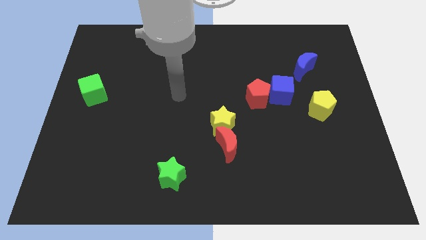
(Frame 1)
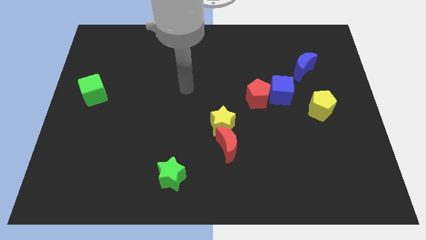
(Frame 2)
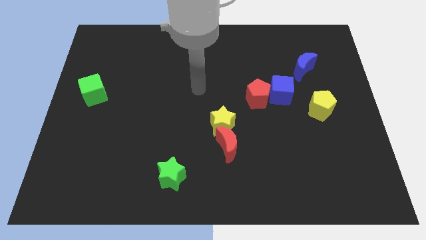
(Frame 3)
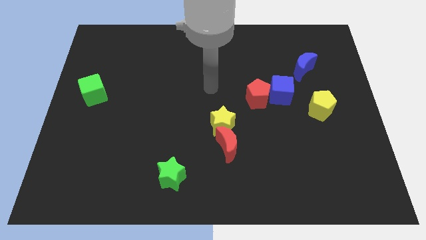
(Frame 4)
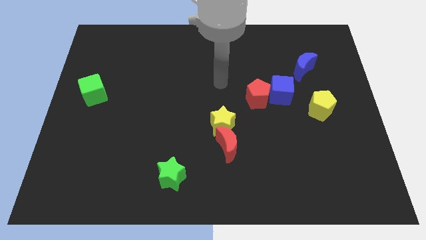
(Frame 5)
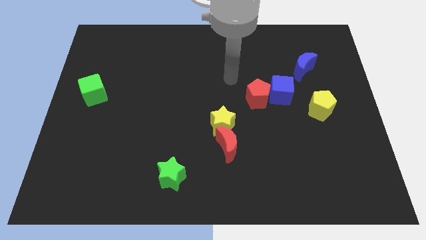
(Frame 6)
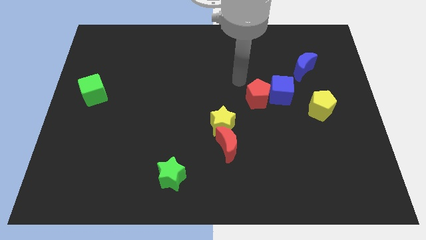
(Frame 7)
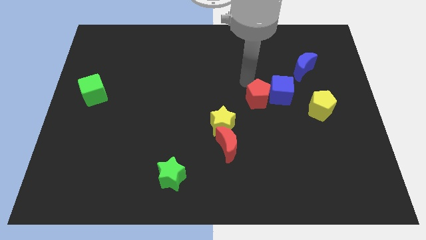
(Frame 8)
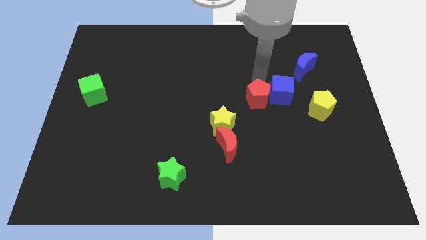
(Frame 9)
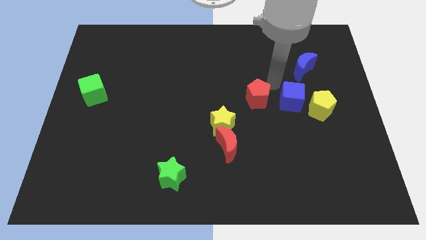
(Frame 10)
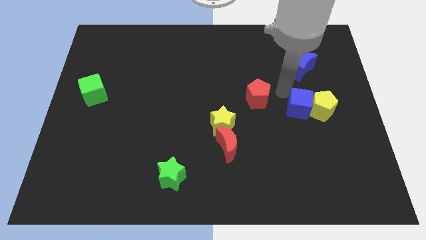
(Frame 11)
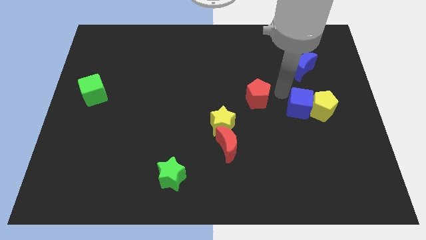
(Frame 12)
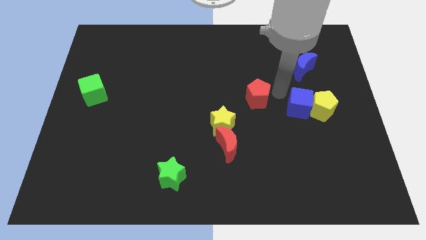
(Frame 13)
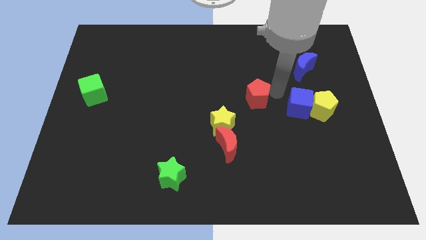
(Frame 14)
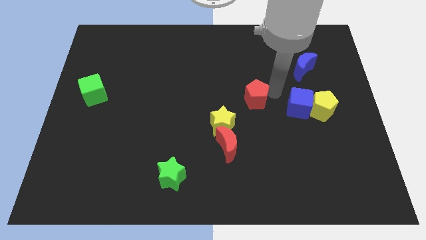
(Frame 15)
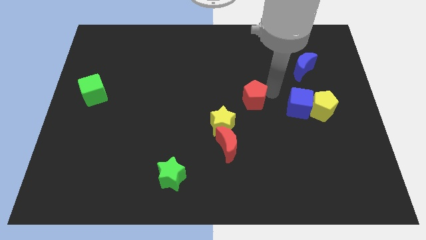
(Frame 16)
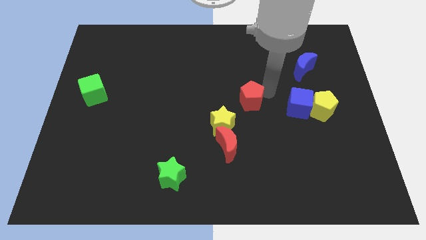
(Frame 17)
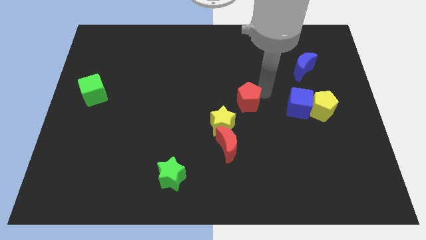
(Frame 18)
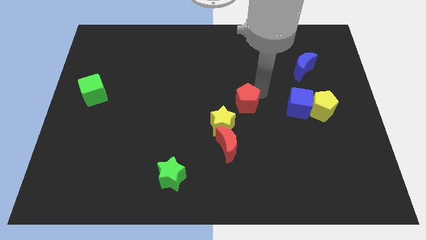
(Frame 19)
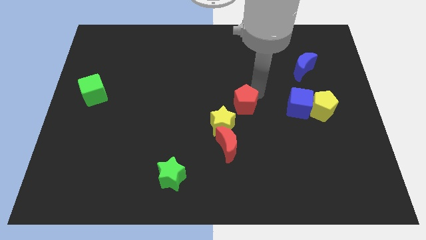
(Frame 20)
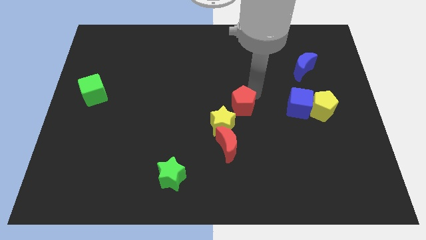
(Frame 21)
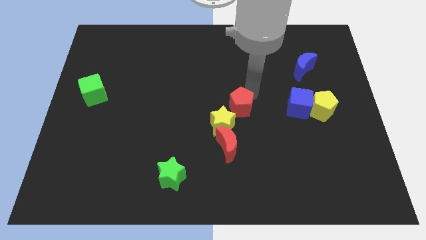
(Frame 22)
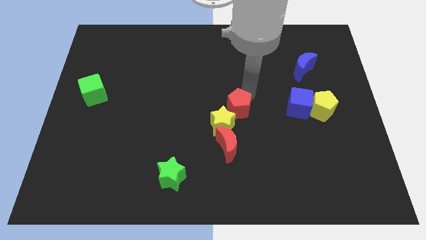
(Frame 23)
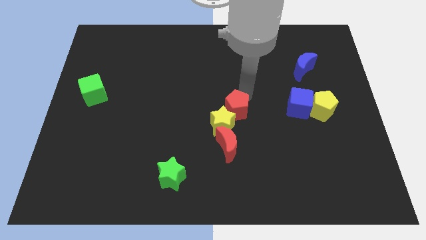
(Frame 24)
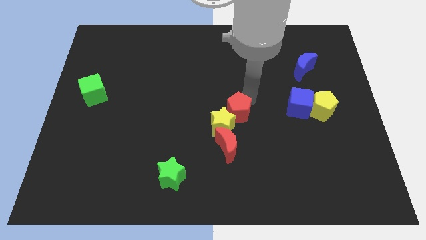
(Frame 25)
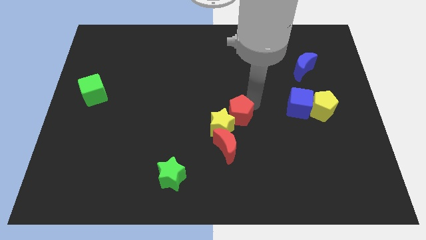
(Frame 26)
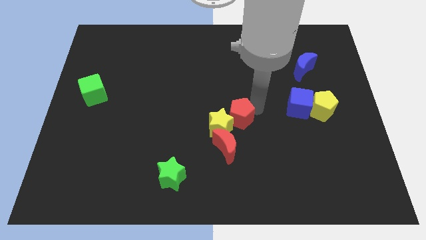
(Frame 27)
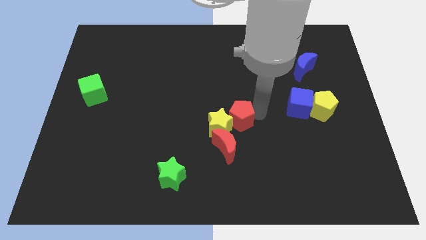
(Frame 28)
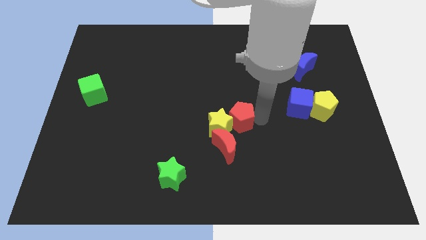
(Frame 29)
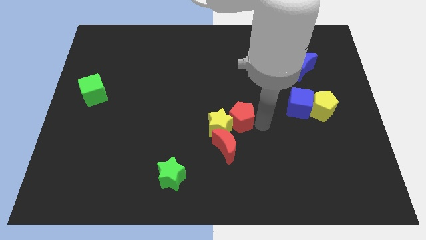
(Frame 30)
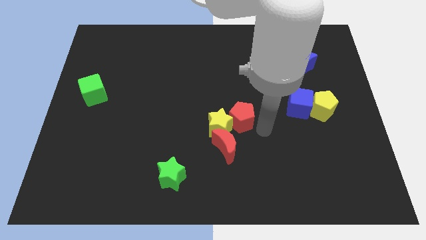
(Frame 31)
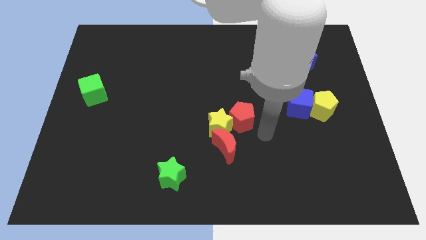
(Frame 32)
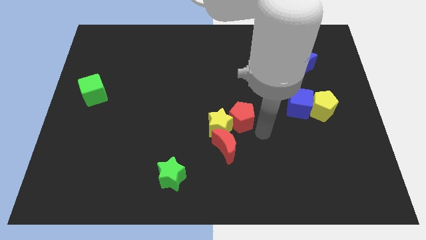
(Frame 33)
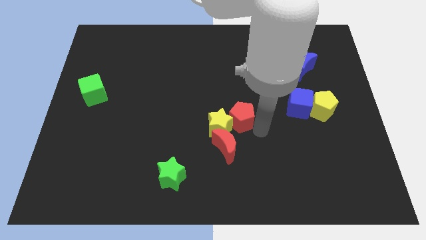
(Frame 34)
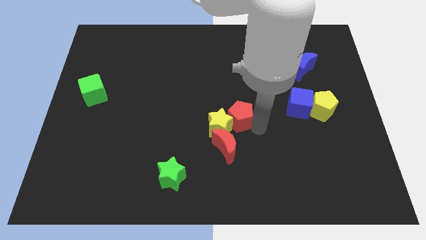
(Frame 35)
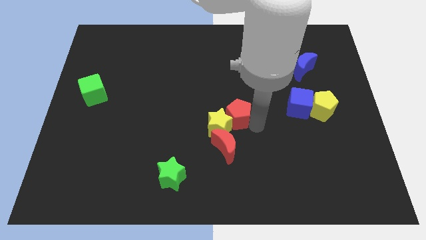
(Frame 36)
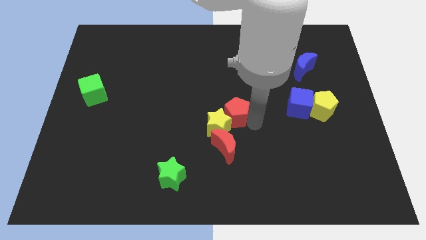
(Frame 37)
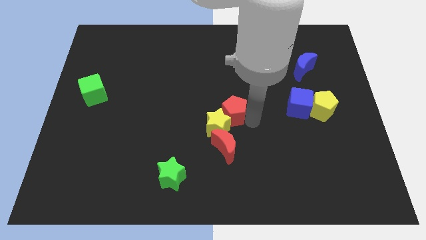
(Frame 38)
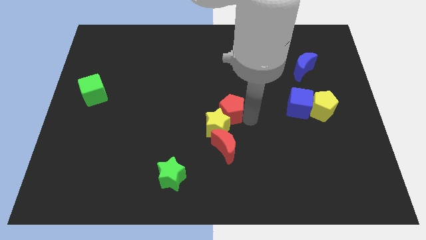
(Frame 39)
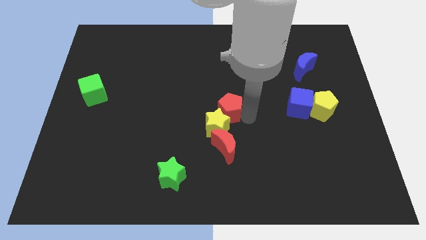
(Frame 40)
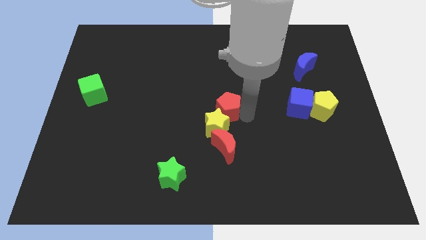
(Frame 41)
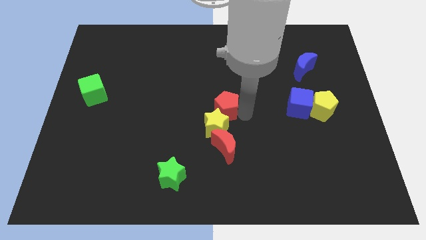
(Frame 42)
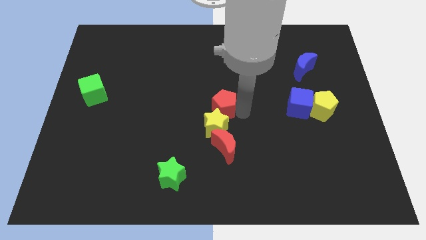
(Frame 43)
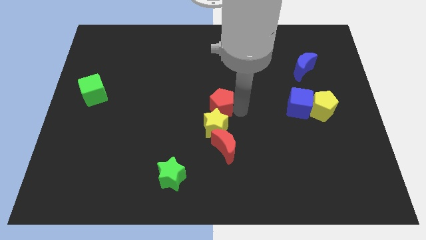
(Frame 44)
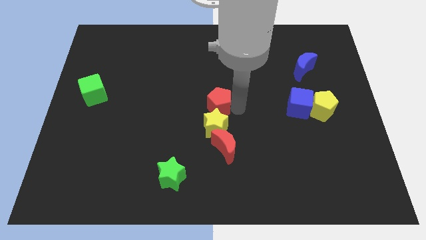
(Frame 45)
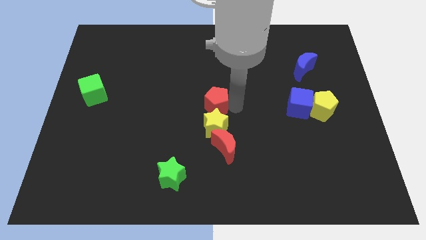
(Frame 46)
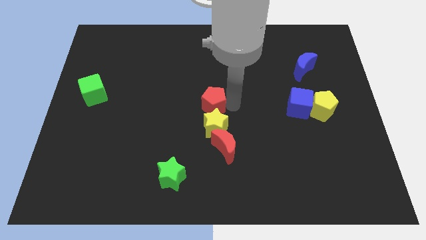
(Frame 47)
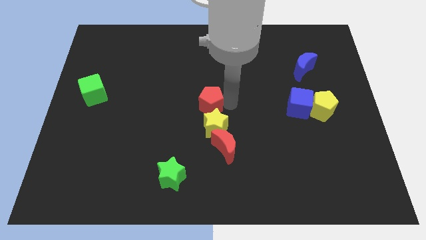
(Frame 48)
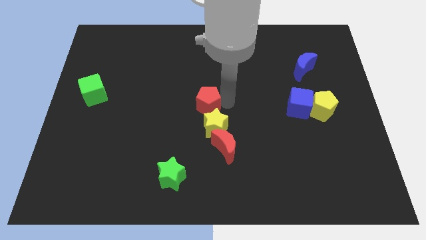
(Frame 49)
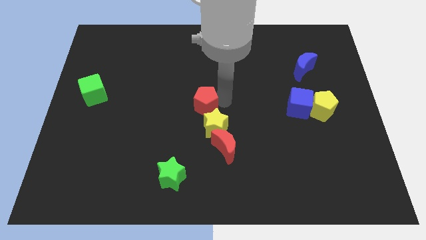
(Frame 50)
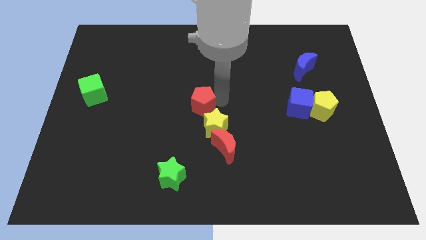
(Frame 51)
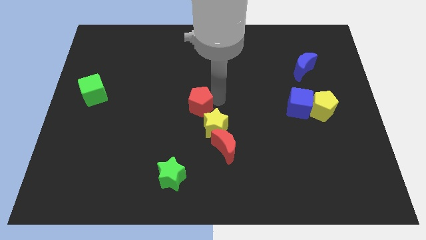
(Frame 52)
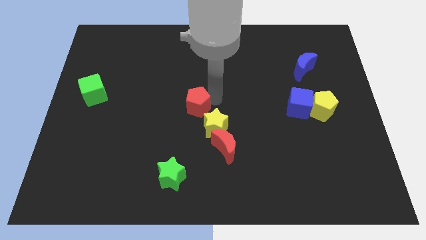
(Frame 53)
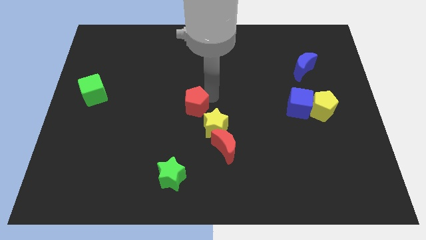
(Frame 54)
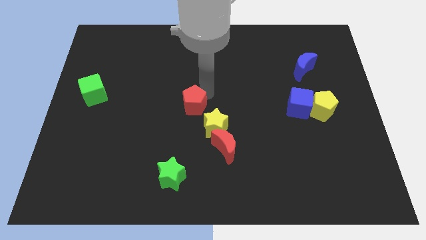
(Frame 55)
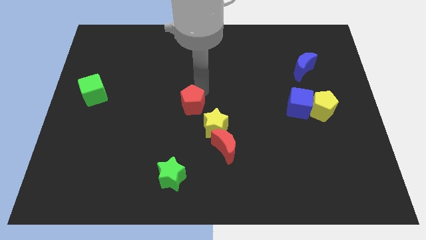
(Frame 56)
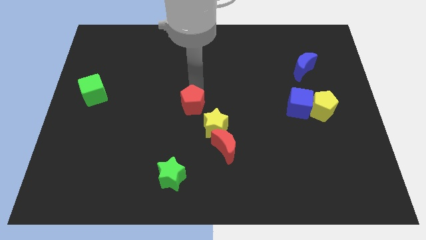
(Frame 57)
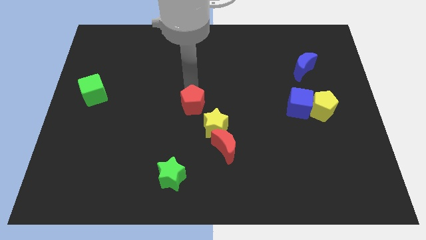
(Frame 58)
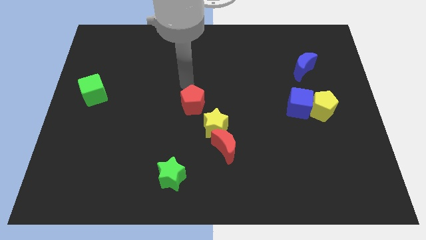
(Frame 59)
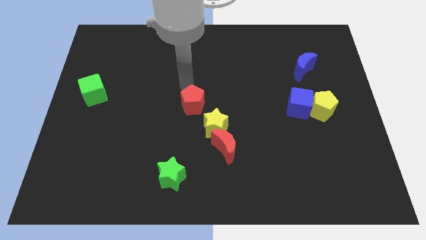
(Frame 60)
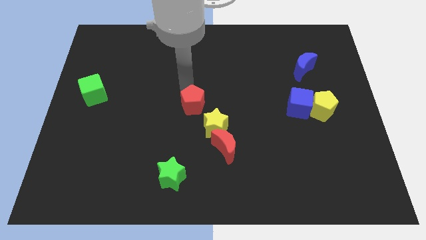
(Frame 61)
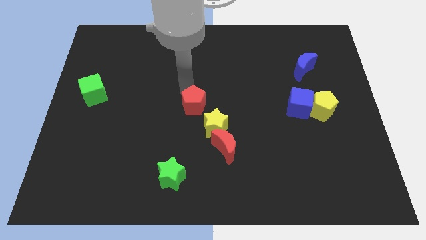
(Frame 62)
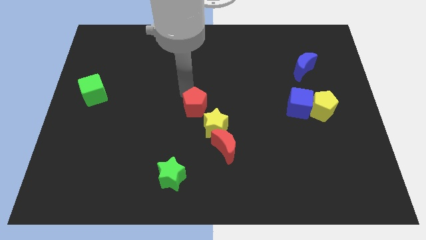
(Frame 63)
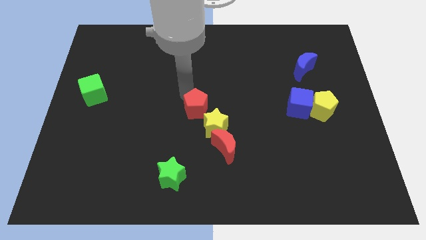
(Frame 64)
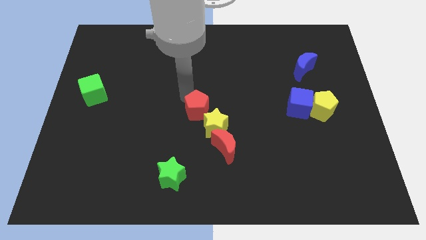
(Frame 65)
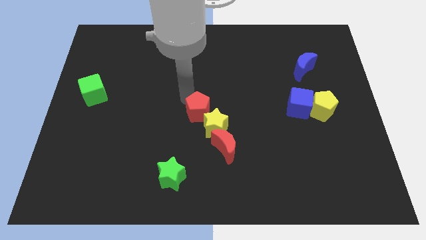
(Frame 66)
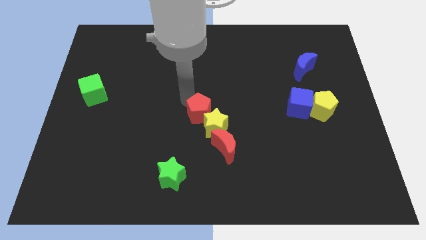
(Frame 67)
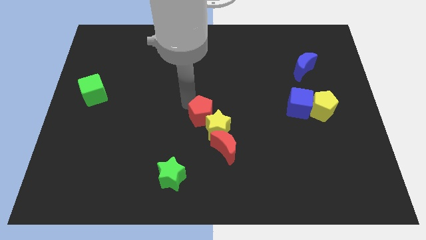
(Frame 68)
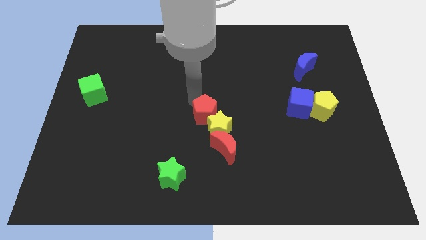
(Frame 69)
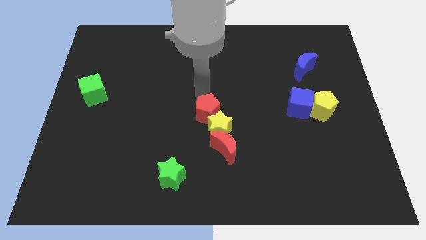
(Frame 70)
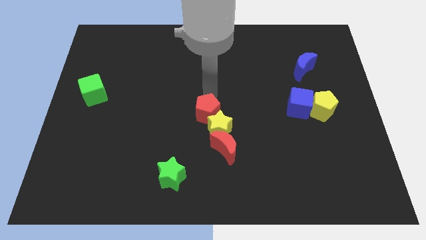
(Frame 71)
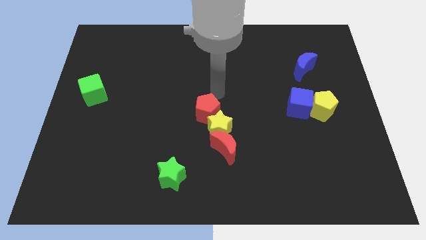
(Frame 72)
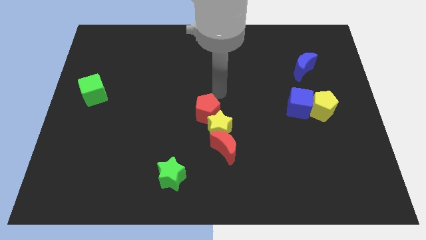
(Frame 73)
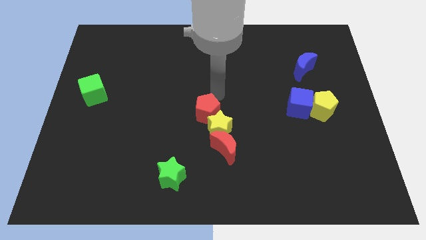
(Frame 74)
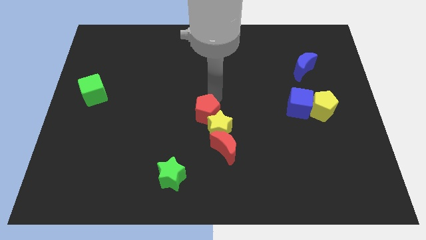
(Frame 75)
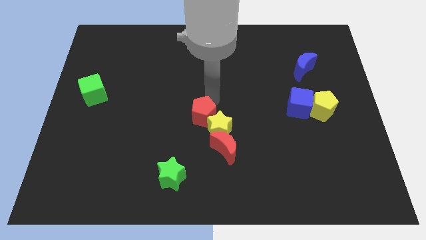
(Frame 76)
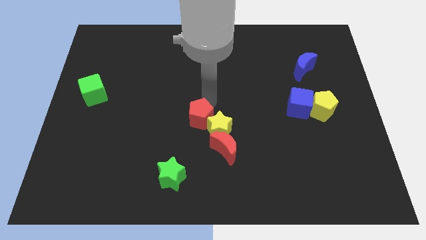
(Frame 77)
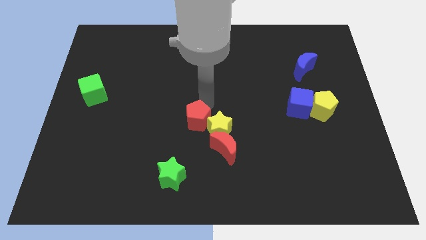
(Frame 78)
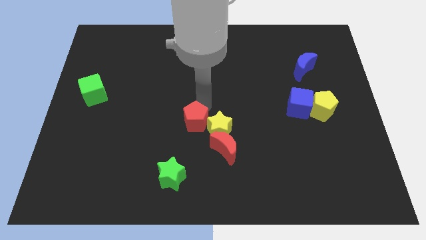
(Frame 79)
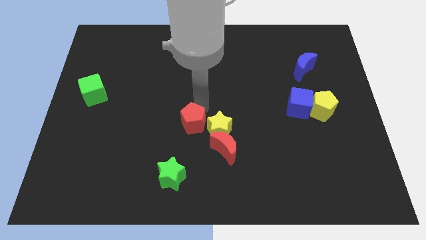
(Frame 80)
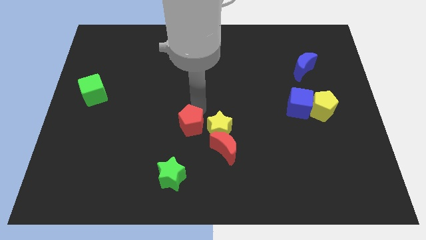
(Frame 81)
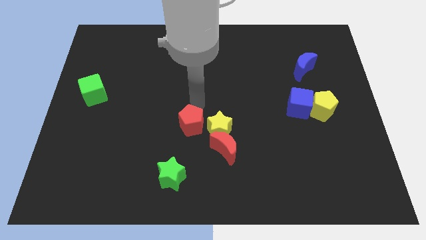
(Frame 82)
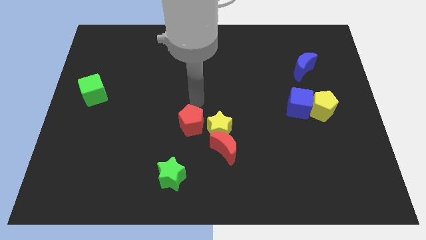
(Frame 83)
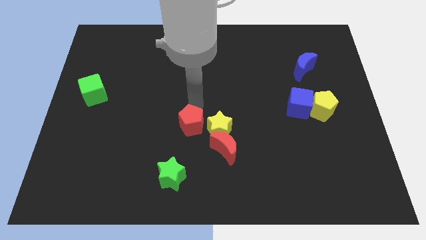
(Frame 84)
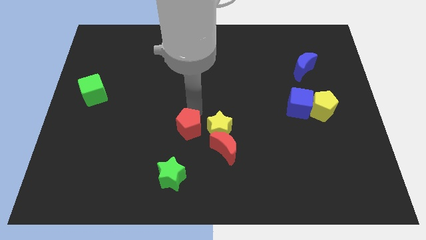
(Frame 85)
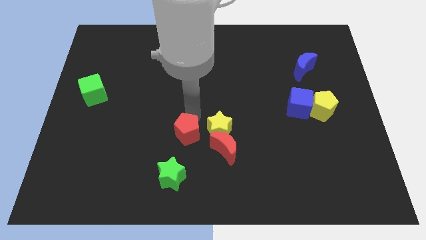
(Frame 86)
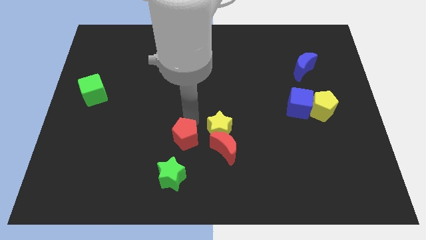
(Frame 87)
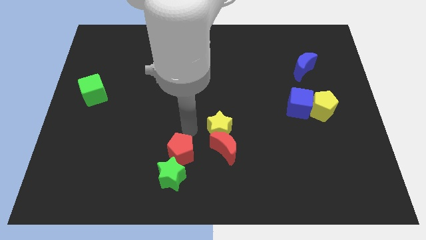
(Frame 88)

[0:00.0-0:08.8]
put the red pentagon close to the green star
